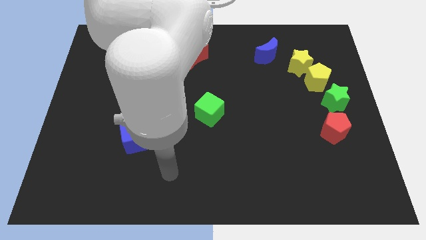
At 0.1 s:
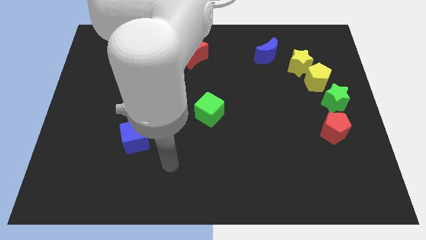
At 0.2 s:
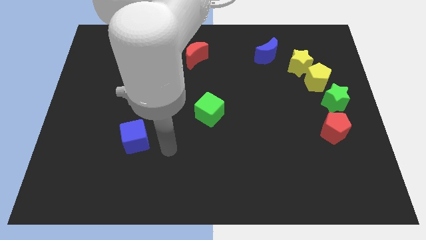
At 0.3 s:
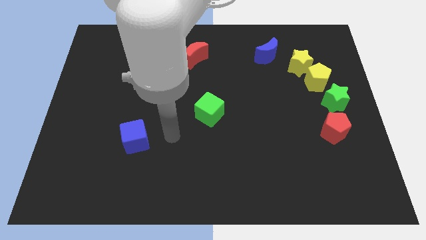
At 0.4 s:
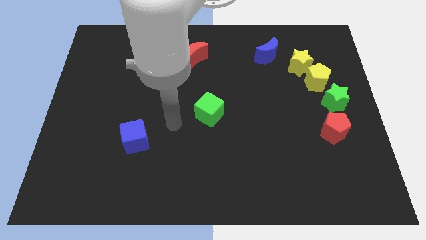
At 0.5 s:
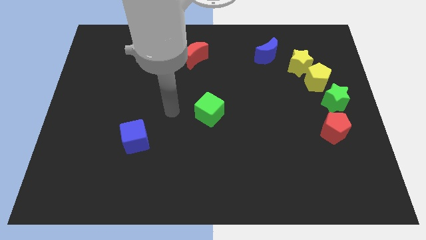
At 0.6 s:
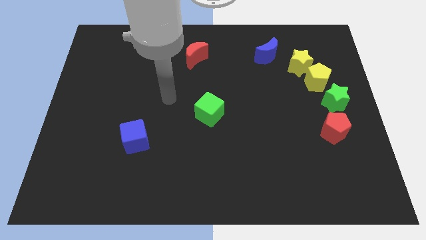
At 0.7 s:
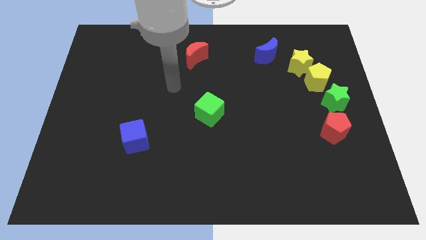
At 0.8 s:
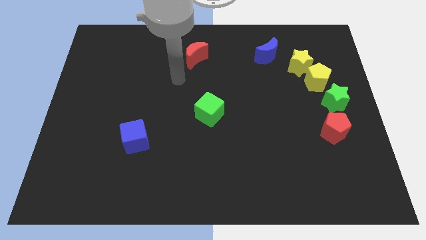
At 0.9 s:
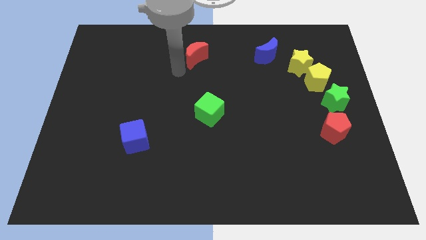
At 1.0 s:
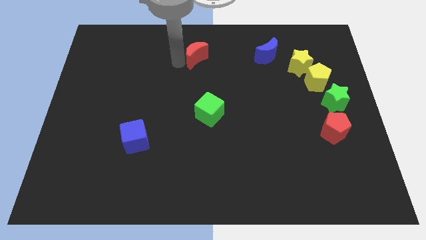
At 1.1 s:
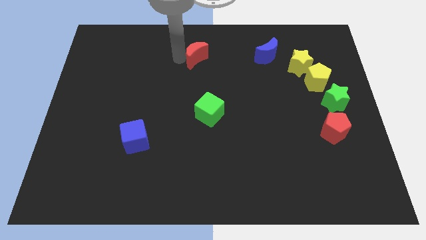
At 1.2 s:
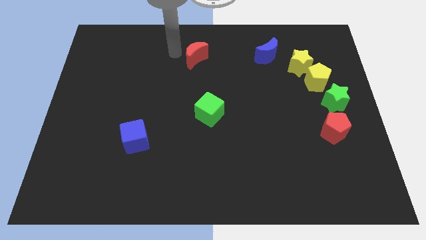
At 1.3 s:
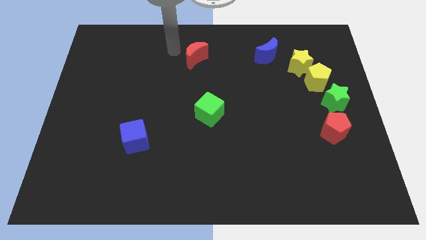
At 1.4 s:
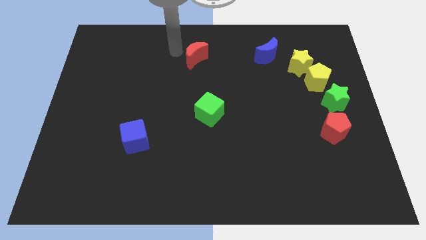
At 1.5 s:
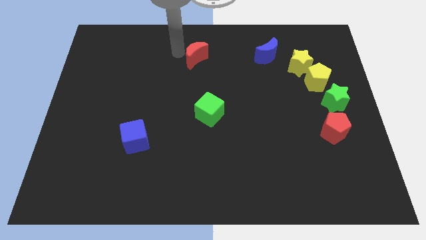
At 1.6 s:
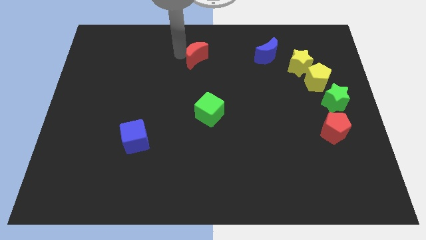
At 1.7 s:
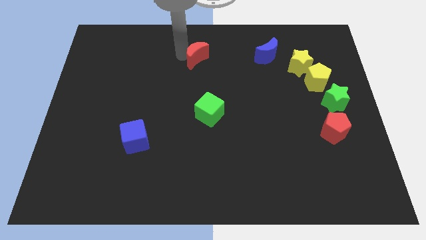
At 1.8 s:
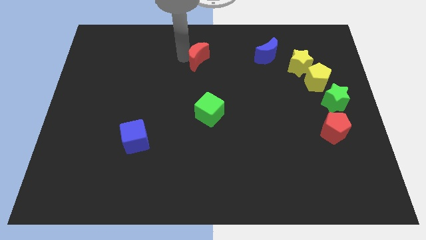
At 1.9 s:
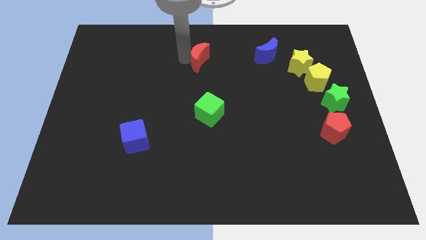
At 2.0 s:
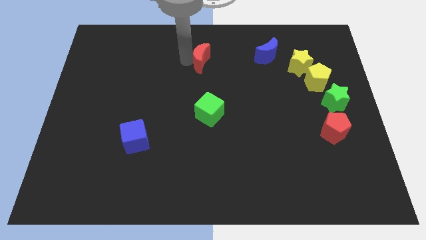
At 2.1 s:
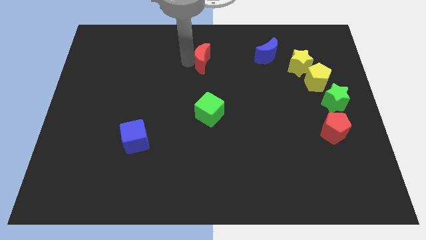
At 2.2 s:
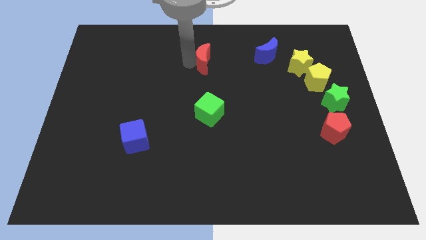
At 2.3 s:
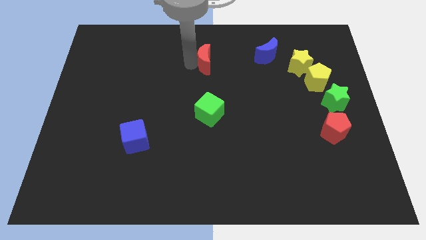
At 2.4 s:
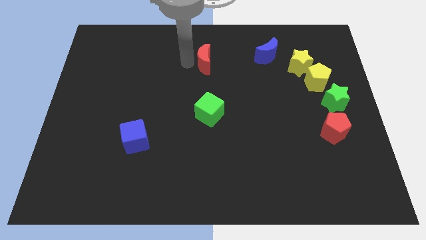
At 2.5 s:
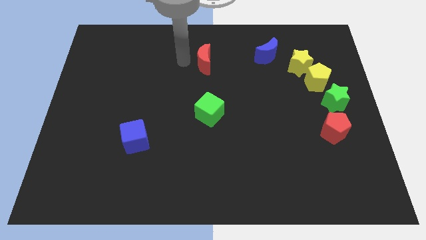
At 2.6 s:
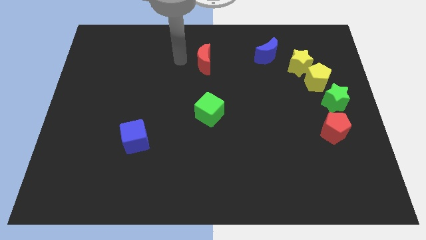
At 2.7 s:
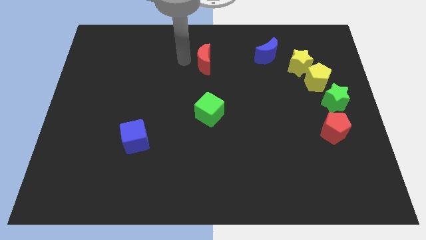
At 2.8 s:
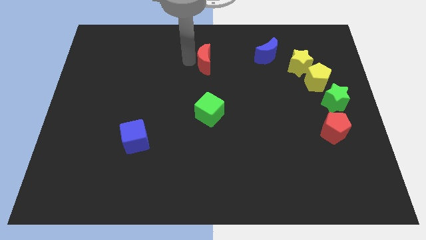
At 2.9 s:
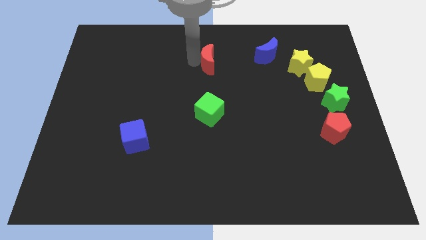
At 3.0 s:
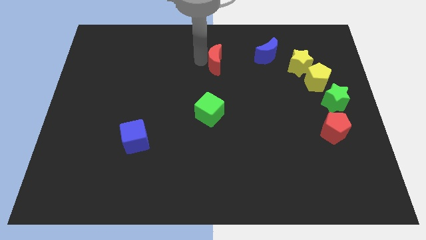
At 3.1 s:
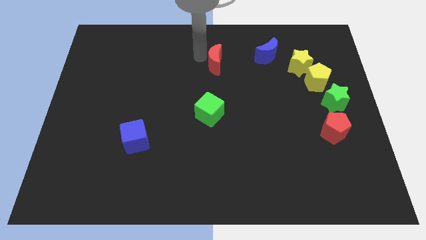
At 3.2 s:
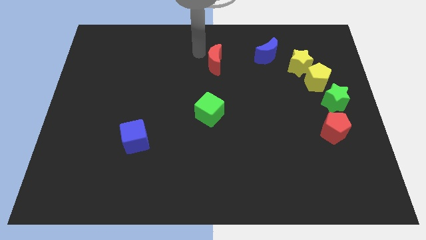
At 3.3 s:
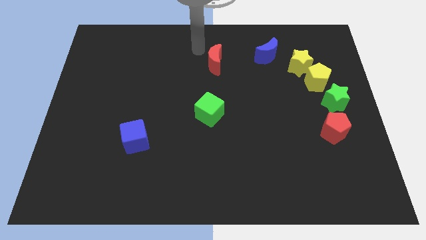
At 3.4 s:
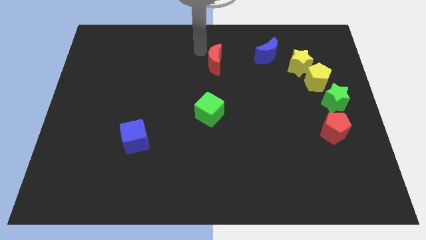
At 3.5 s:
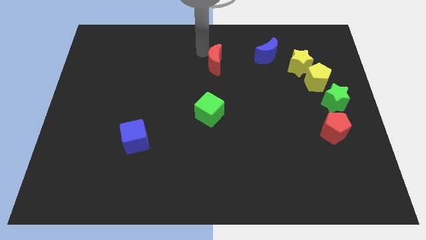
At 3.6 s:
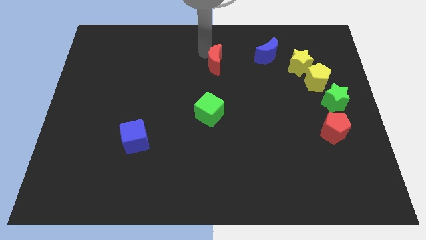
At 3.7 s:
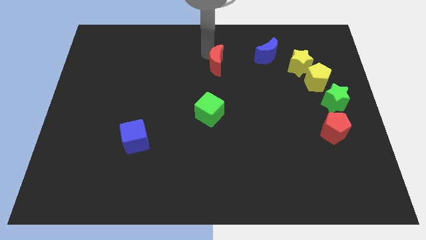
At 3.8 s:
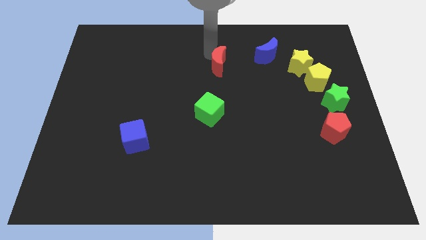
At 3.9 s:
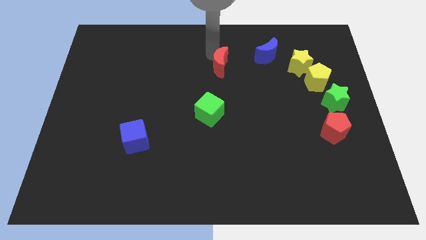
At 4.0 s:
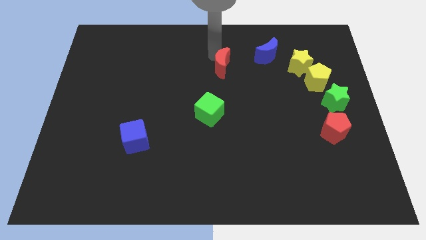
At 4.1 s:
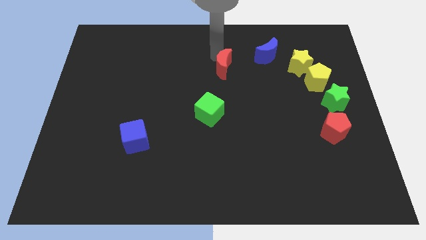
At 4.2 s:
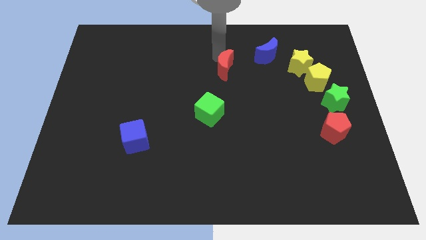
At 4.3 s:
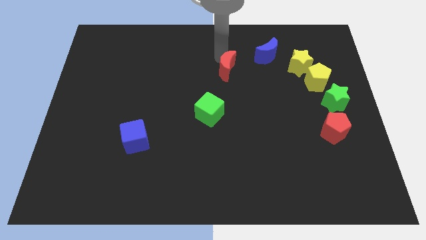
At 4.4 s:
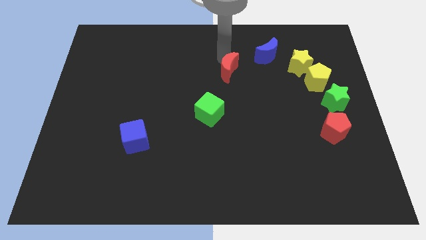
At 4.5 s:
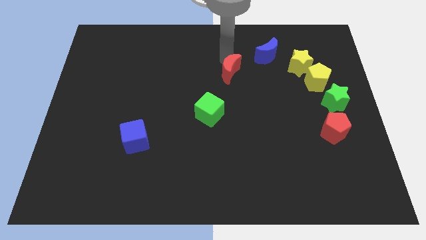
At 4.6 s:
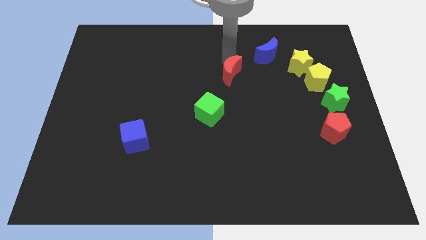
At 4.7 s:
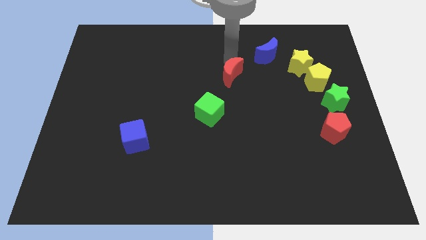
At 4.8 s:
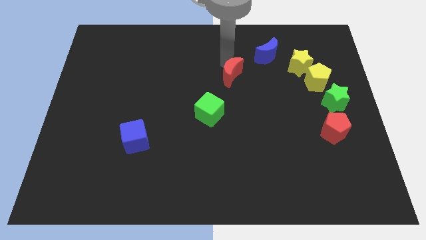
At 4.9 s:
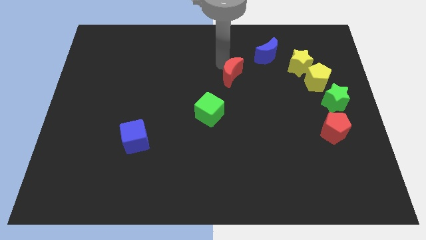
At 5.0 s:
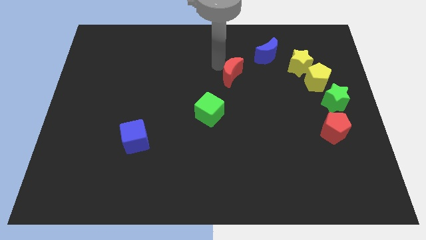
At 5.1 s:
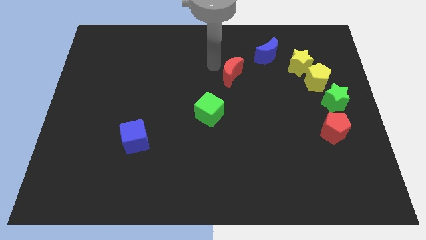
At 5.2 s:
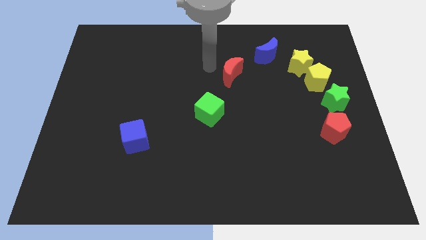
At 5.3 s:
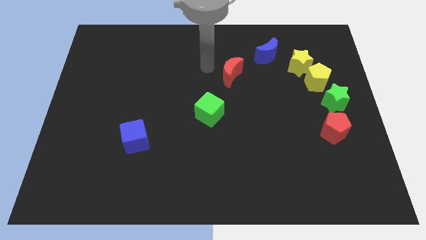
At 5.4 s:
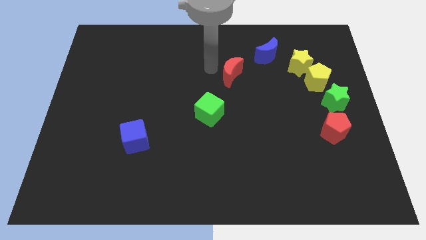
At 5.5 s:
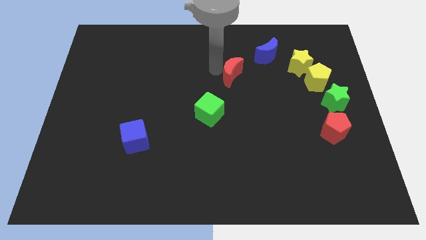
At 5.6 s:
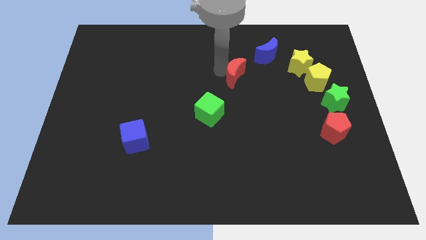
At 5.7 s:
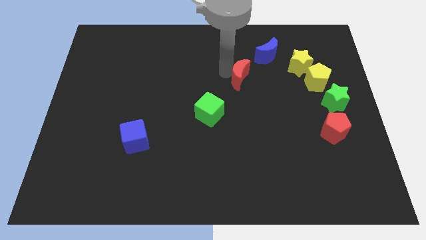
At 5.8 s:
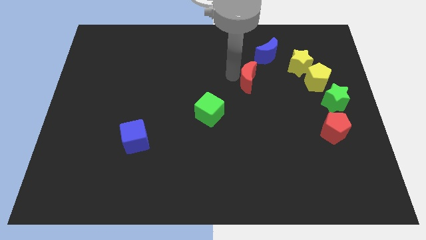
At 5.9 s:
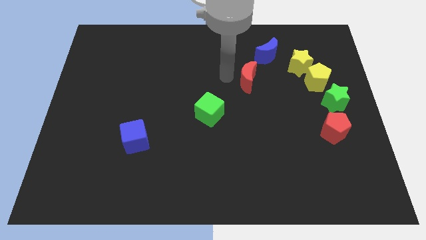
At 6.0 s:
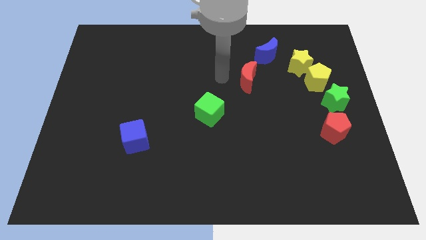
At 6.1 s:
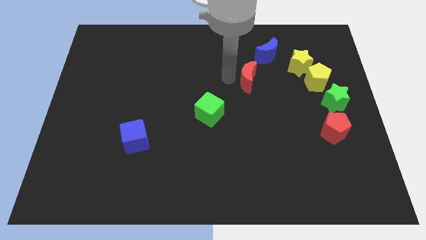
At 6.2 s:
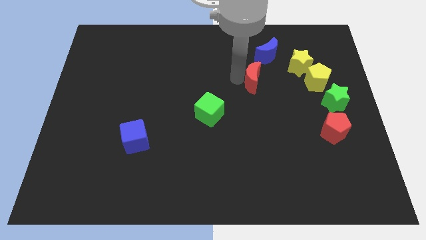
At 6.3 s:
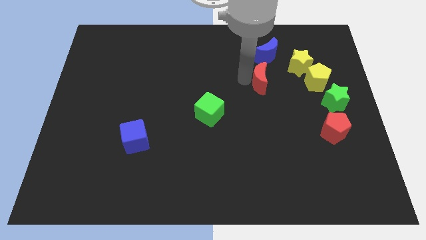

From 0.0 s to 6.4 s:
put the red moon diagonally down and to the left of the yellow star

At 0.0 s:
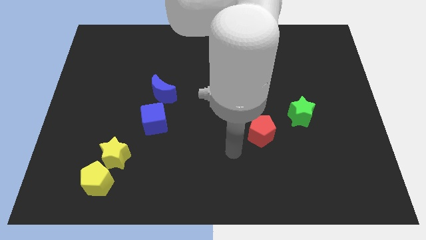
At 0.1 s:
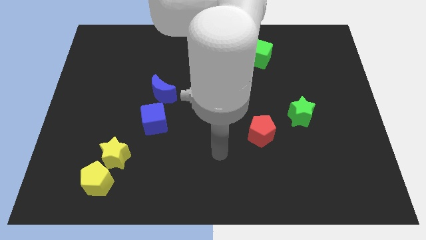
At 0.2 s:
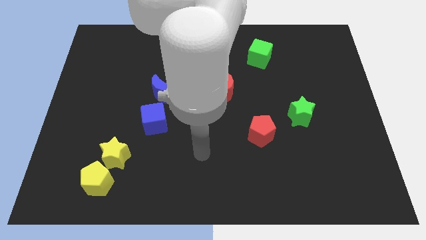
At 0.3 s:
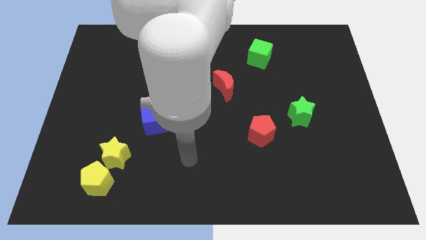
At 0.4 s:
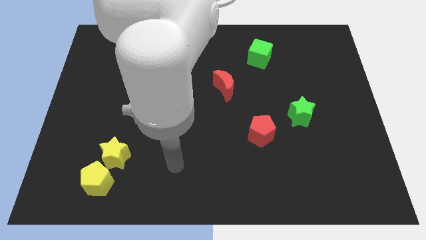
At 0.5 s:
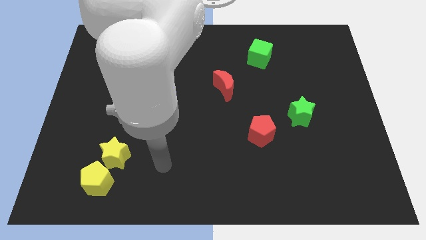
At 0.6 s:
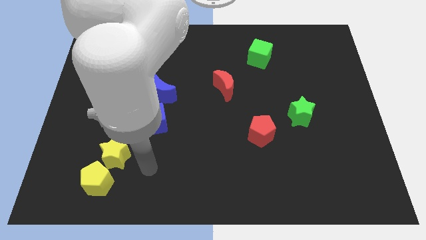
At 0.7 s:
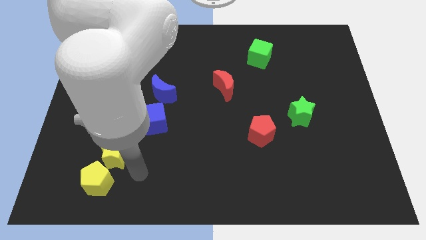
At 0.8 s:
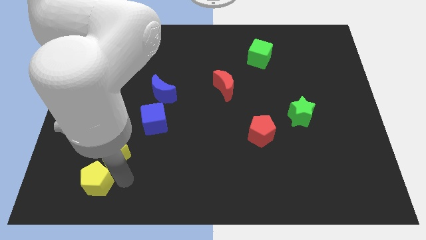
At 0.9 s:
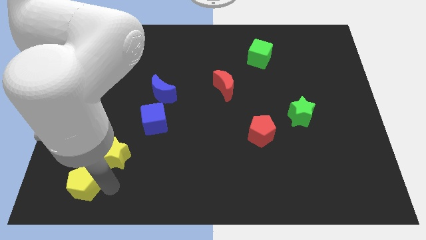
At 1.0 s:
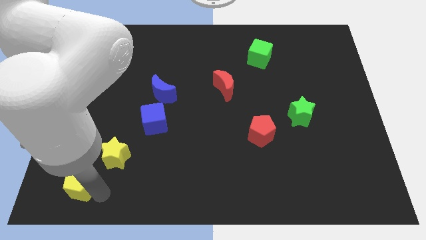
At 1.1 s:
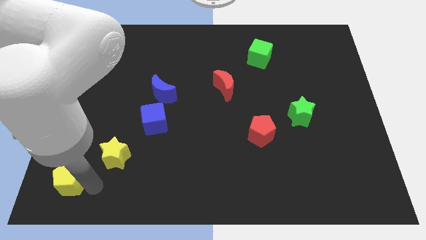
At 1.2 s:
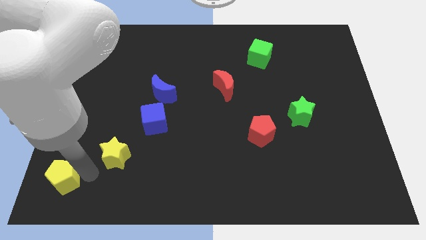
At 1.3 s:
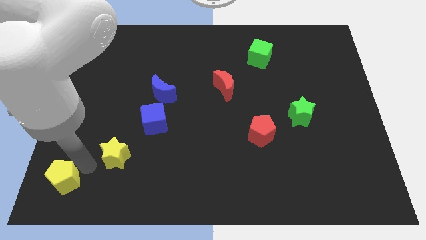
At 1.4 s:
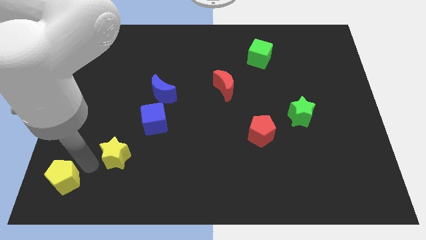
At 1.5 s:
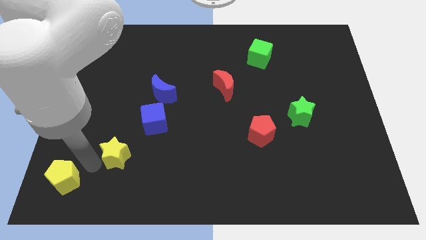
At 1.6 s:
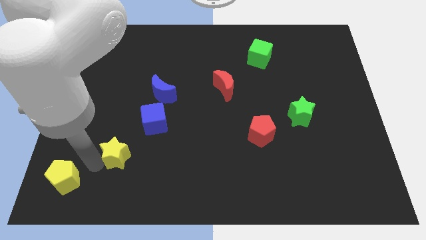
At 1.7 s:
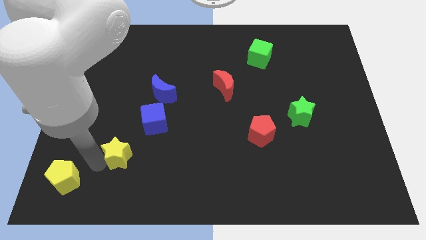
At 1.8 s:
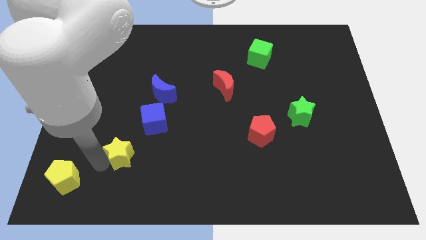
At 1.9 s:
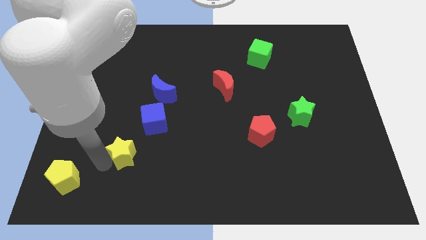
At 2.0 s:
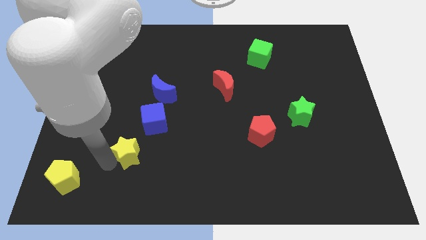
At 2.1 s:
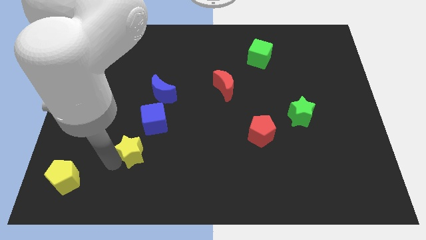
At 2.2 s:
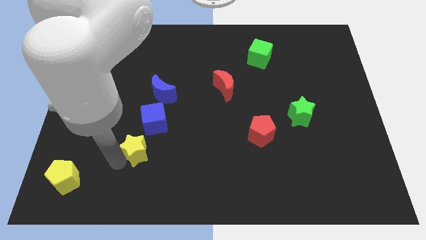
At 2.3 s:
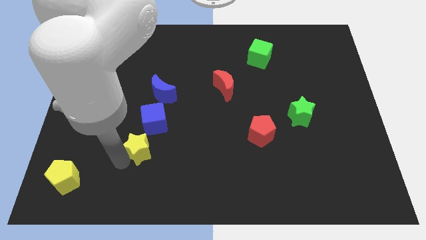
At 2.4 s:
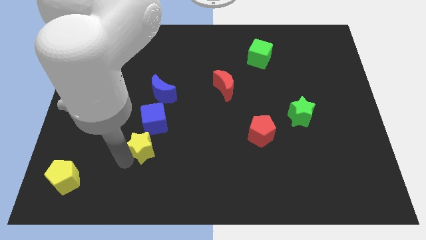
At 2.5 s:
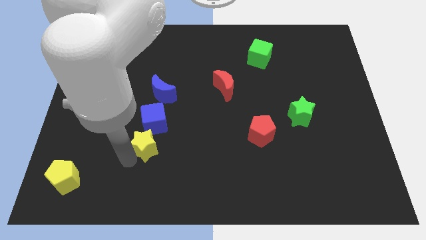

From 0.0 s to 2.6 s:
slide the yellow star below the blue moon
